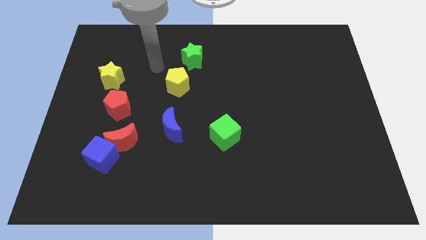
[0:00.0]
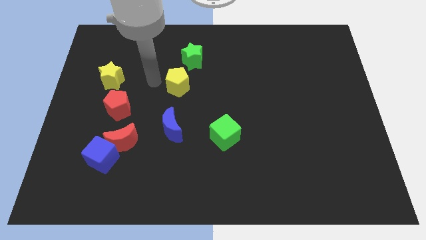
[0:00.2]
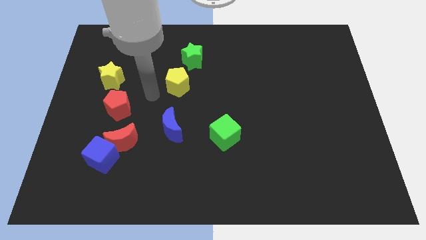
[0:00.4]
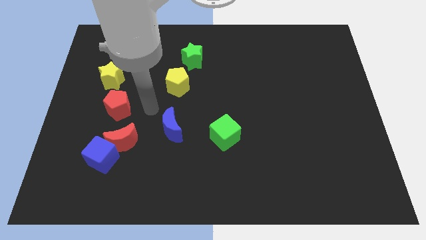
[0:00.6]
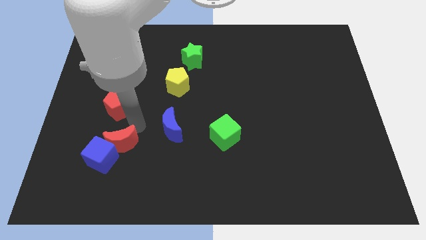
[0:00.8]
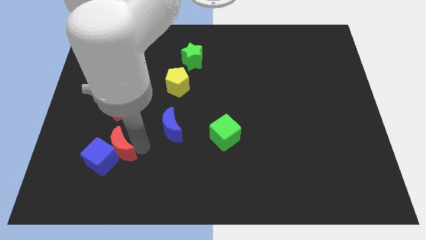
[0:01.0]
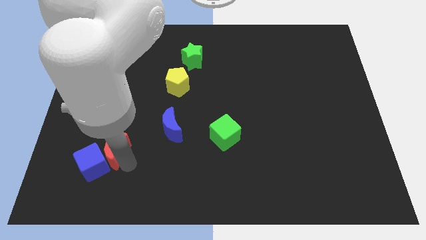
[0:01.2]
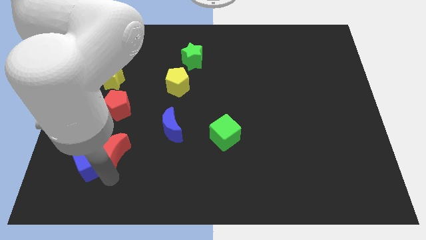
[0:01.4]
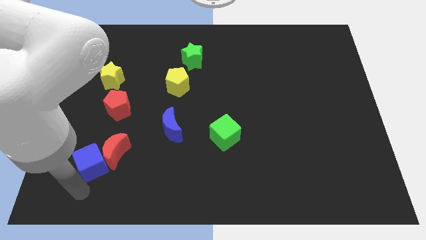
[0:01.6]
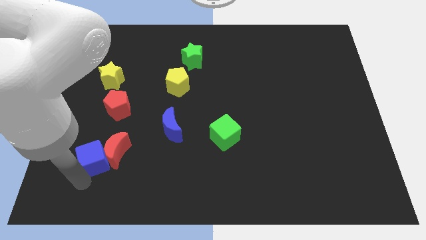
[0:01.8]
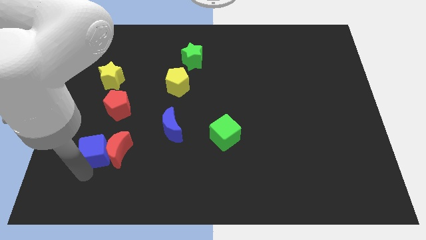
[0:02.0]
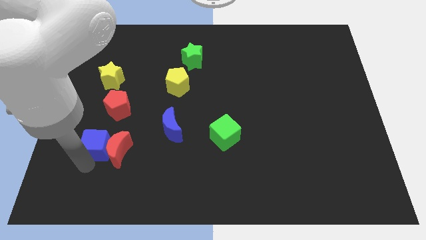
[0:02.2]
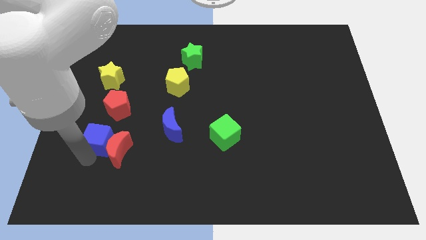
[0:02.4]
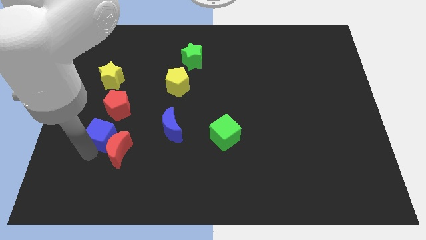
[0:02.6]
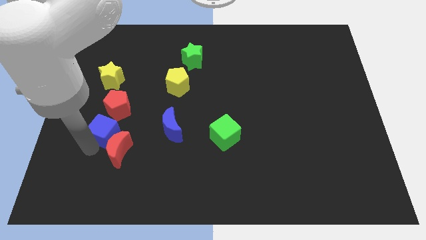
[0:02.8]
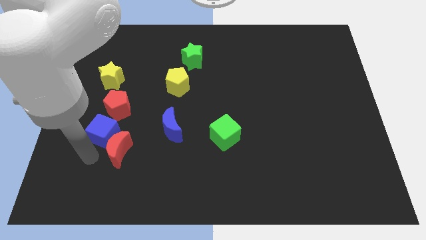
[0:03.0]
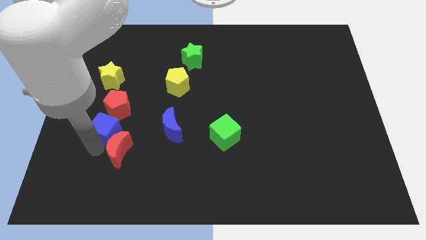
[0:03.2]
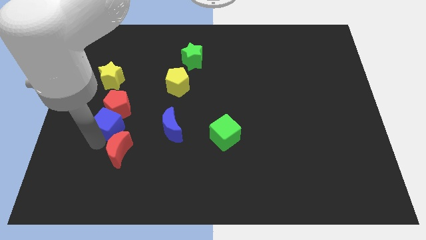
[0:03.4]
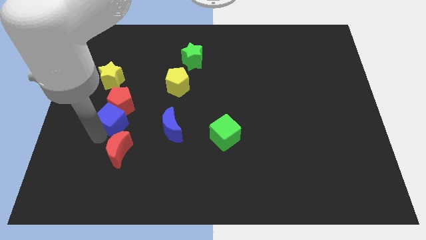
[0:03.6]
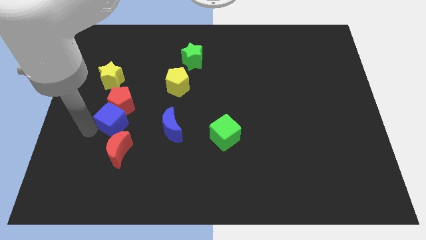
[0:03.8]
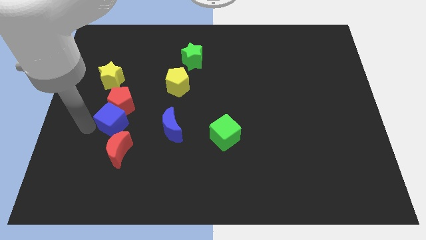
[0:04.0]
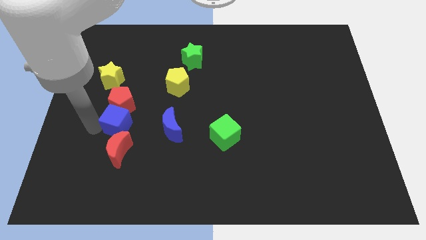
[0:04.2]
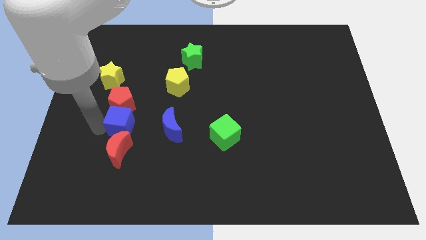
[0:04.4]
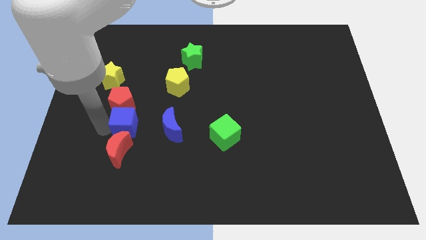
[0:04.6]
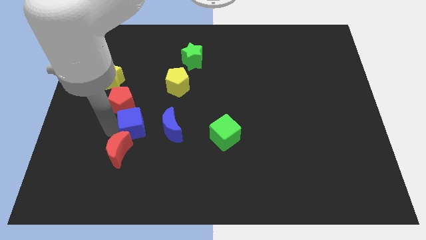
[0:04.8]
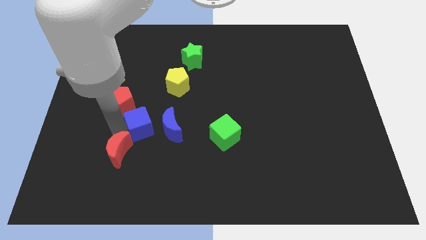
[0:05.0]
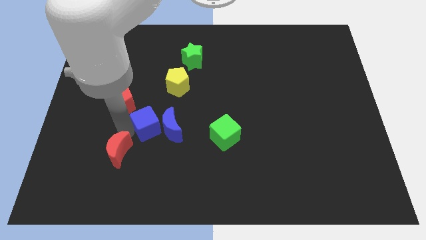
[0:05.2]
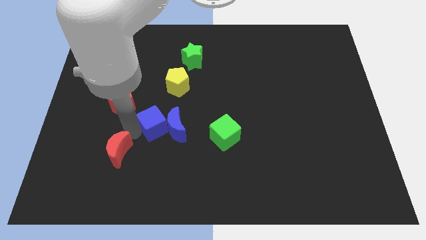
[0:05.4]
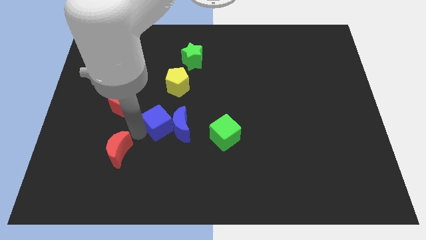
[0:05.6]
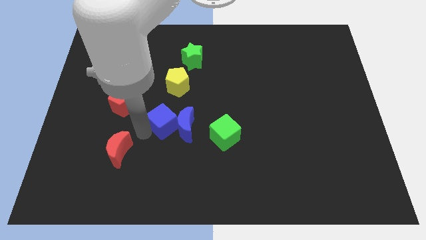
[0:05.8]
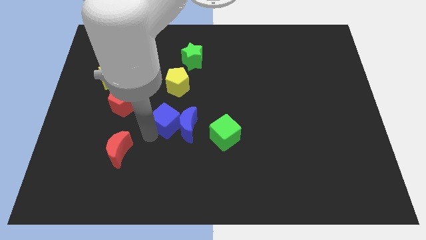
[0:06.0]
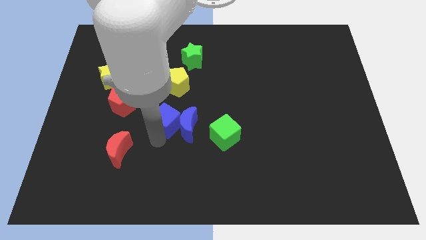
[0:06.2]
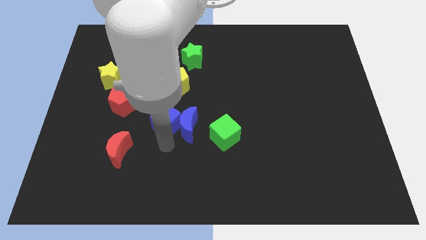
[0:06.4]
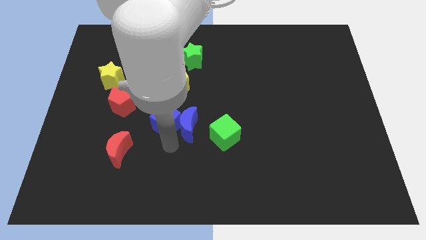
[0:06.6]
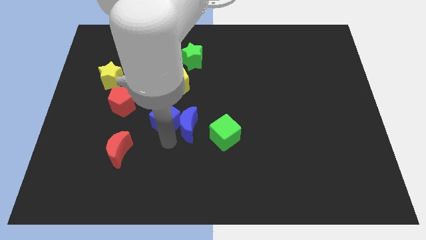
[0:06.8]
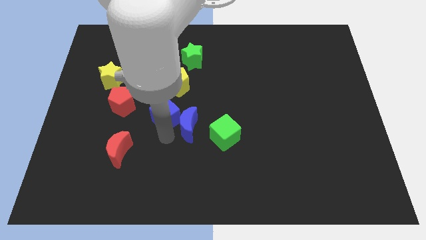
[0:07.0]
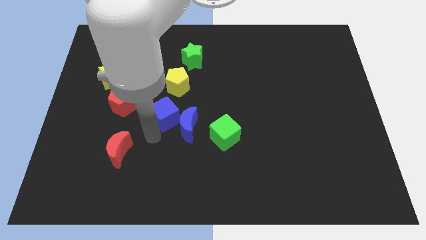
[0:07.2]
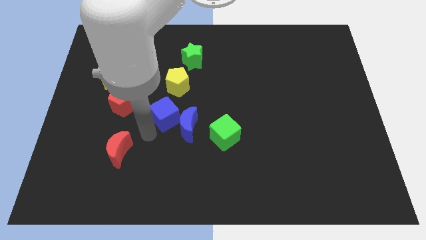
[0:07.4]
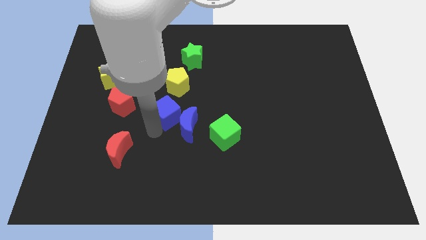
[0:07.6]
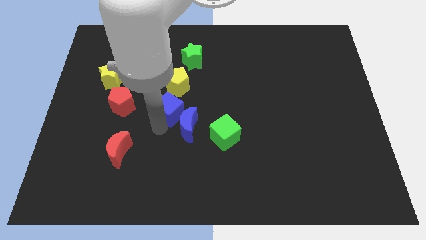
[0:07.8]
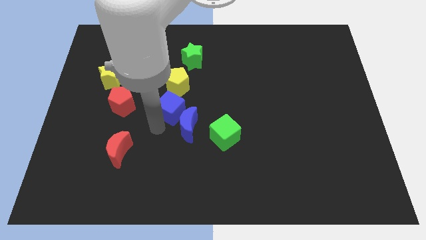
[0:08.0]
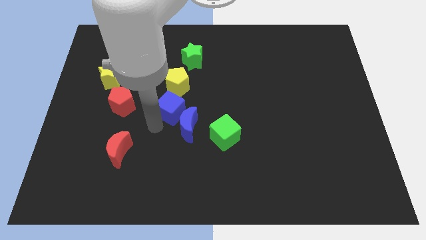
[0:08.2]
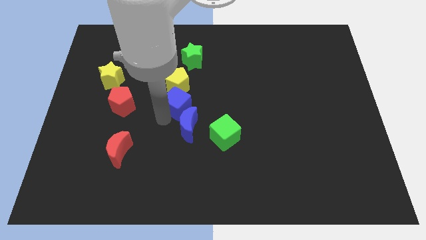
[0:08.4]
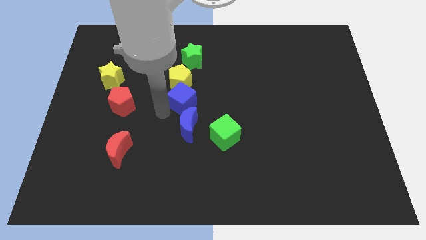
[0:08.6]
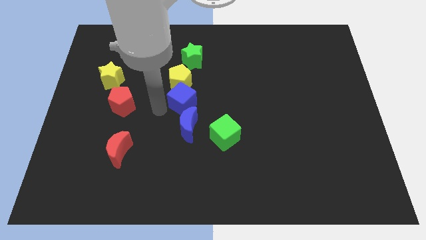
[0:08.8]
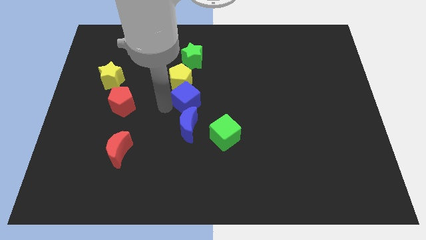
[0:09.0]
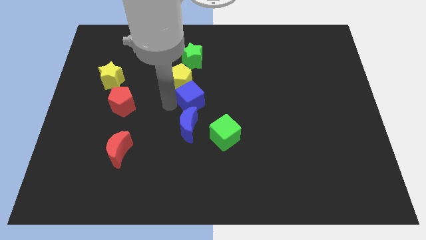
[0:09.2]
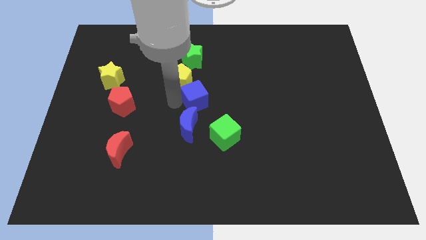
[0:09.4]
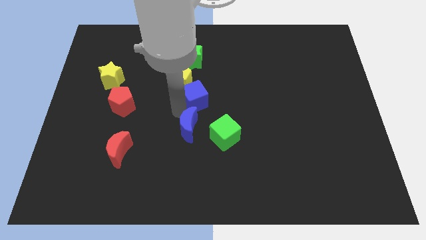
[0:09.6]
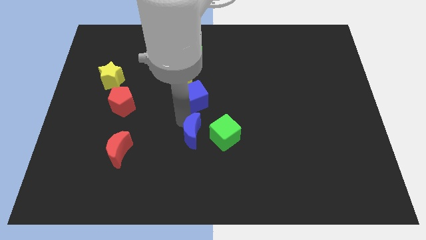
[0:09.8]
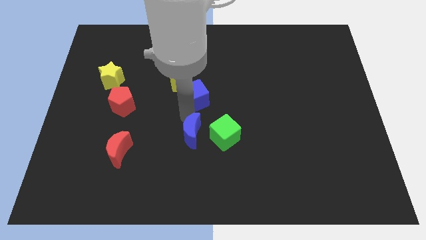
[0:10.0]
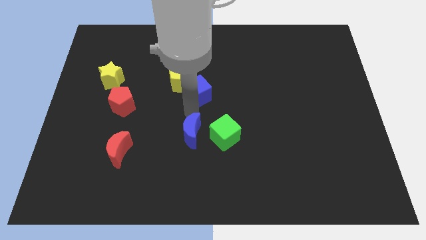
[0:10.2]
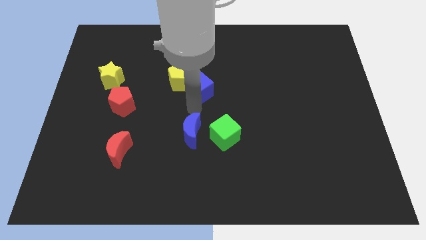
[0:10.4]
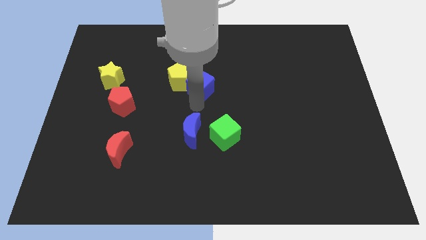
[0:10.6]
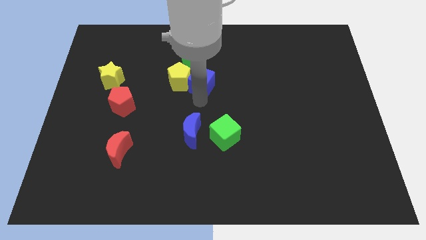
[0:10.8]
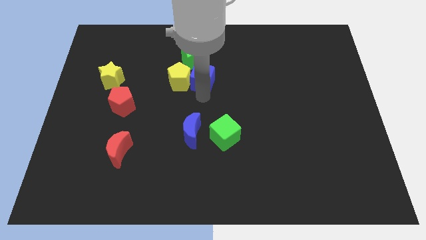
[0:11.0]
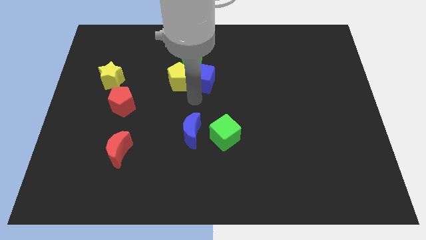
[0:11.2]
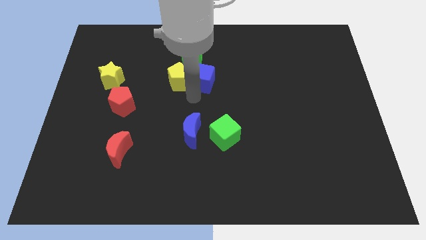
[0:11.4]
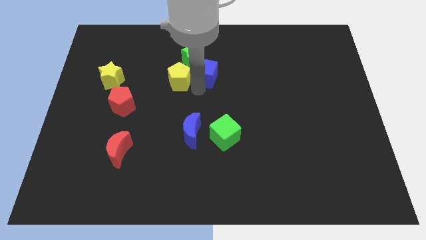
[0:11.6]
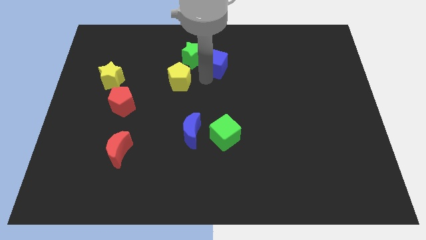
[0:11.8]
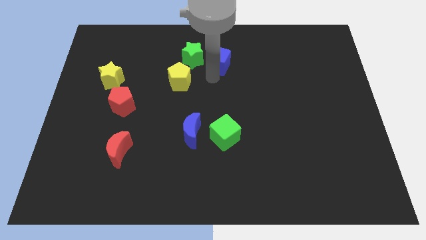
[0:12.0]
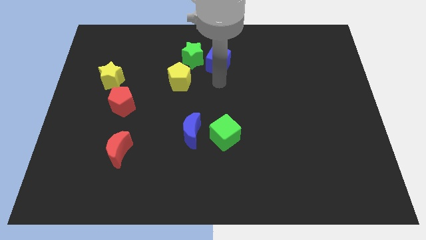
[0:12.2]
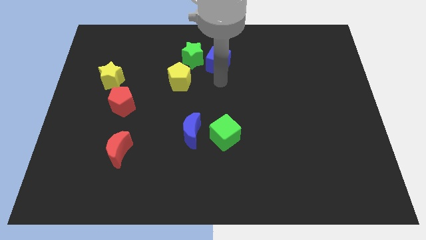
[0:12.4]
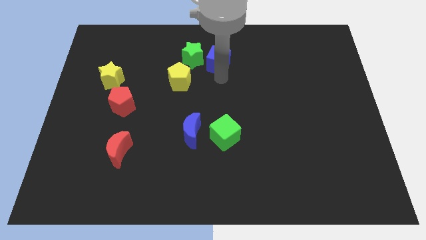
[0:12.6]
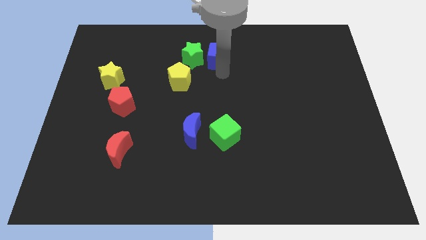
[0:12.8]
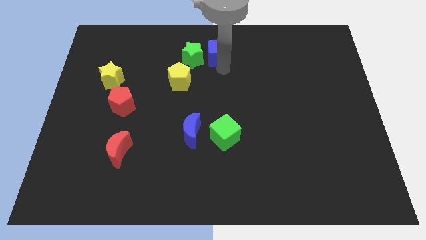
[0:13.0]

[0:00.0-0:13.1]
push the blue cube to the top

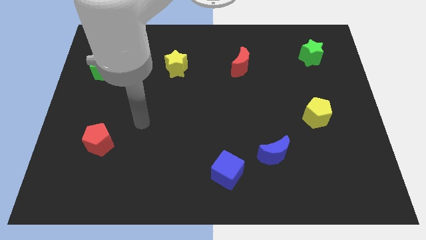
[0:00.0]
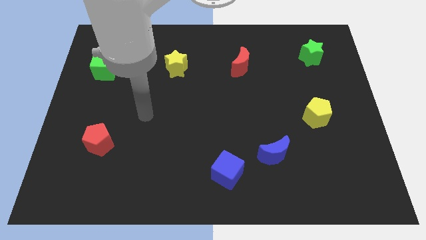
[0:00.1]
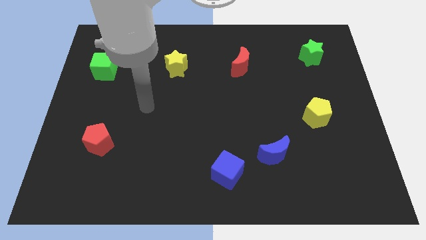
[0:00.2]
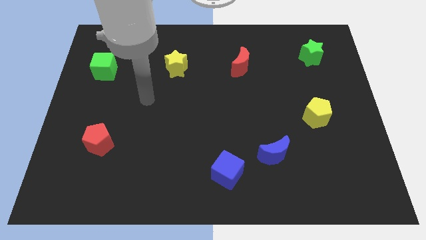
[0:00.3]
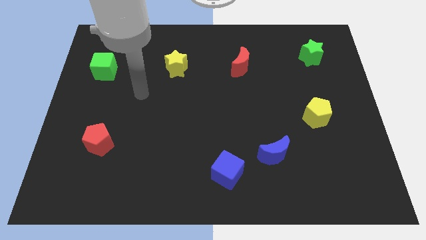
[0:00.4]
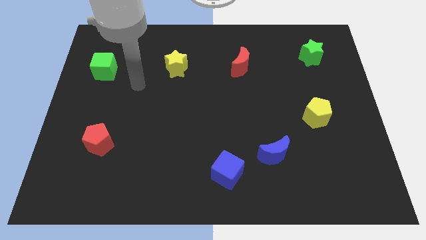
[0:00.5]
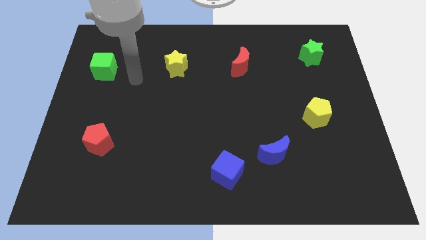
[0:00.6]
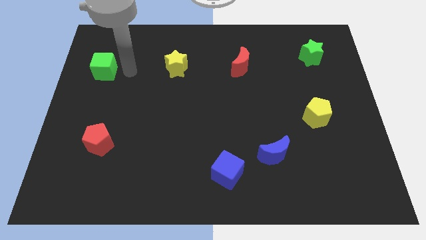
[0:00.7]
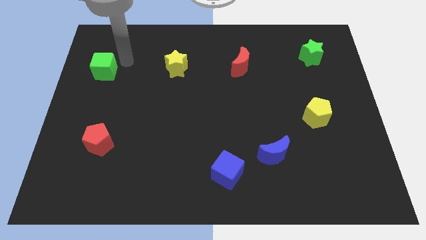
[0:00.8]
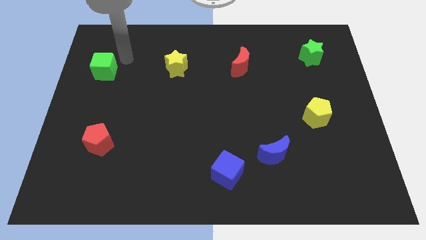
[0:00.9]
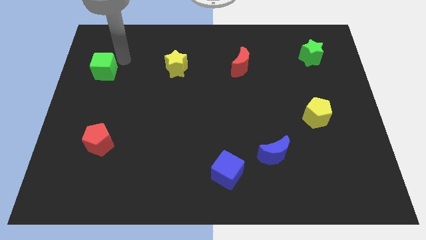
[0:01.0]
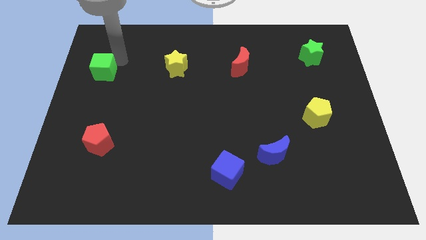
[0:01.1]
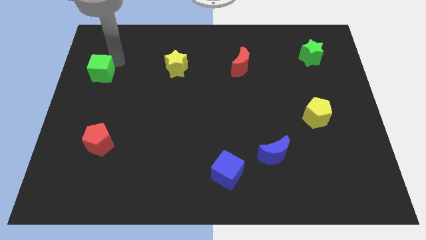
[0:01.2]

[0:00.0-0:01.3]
put the green cube to the left side of the board
